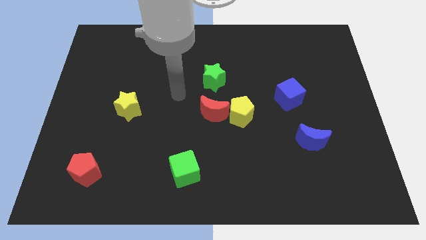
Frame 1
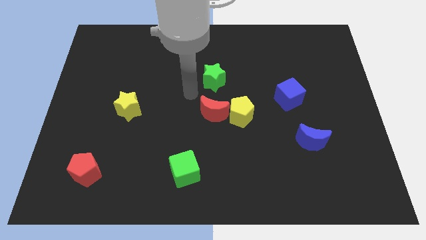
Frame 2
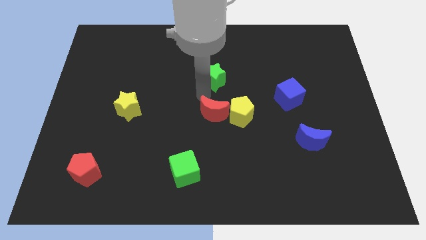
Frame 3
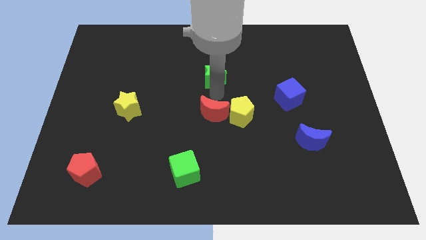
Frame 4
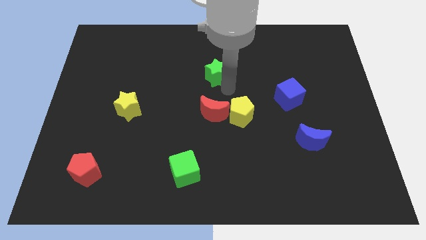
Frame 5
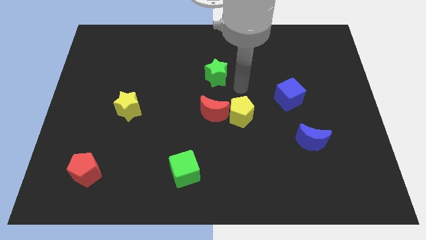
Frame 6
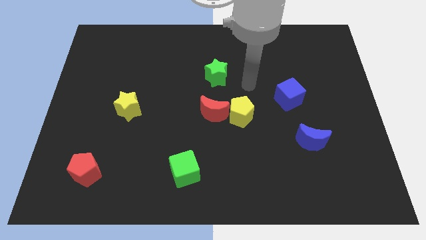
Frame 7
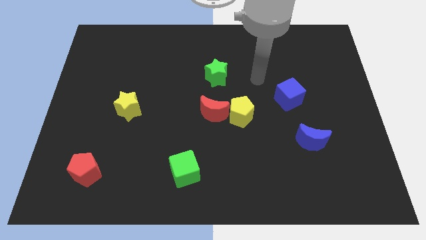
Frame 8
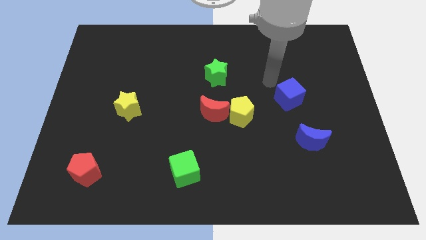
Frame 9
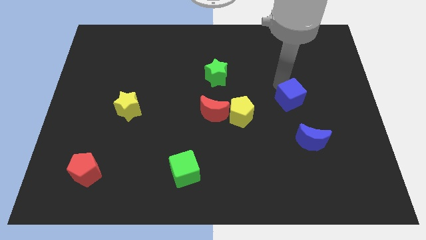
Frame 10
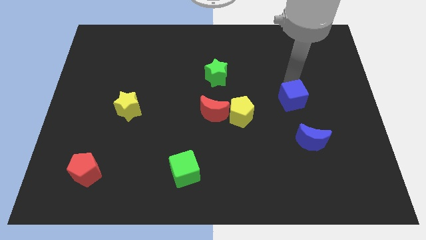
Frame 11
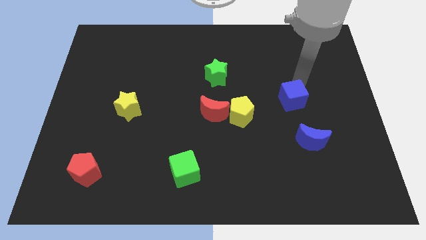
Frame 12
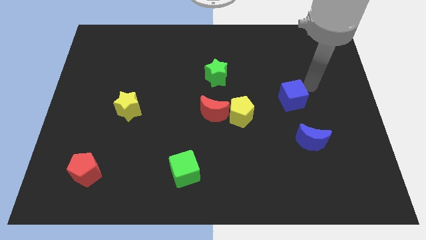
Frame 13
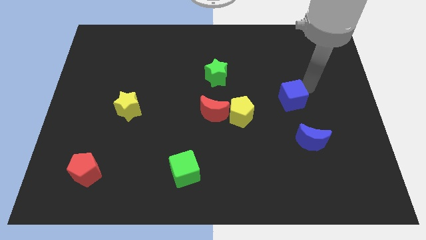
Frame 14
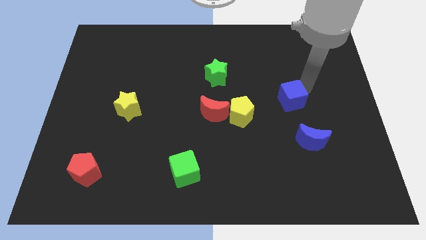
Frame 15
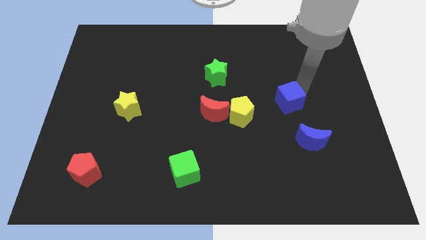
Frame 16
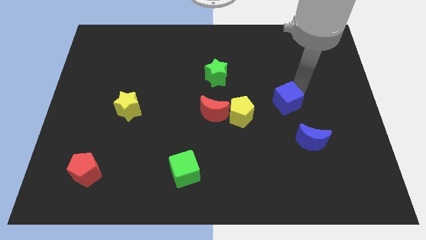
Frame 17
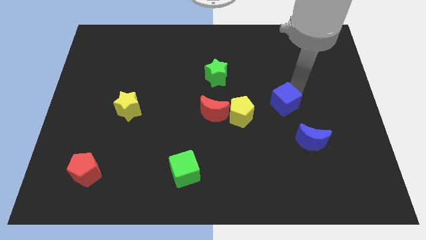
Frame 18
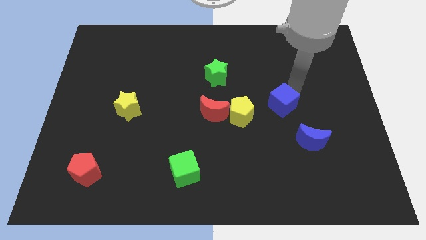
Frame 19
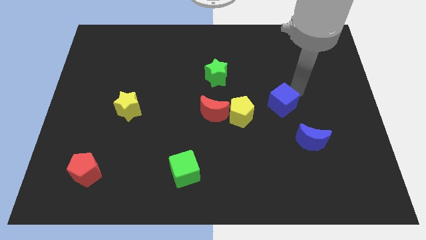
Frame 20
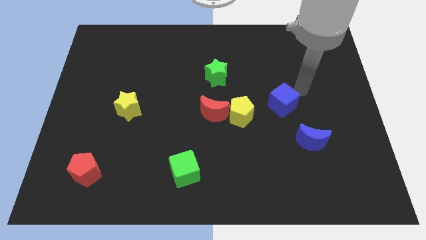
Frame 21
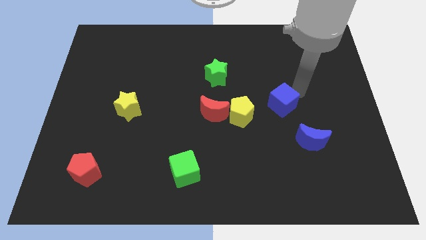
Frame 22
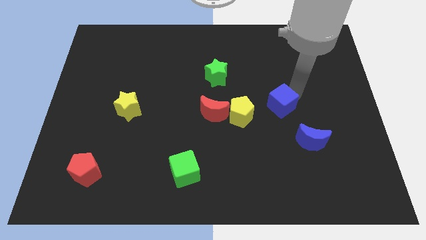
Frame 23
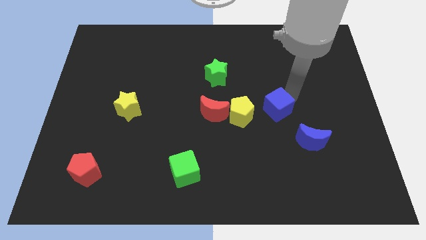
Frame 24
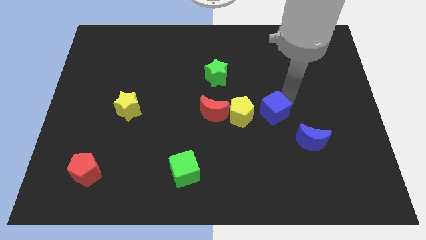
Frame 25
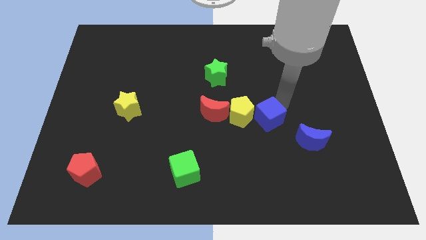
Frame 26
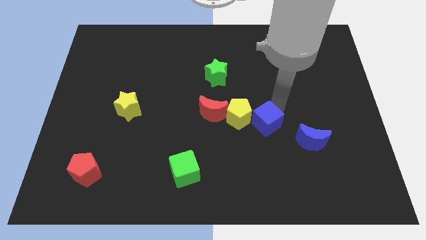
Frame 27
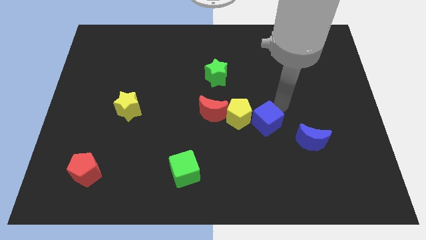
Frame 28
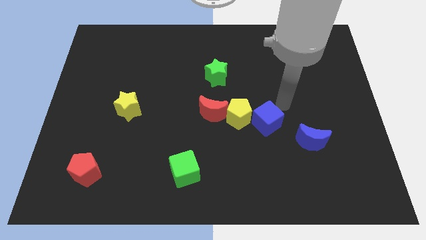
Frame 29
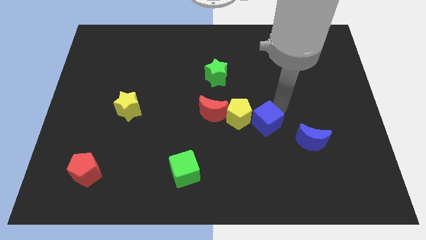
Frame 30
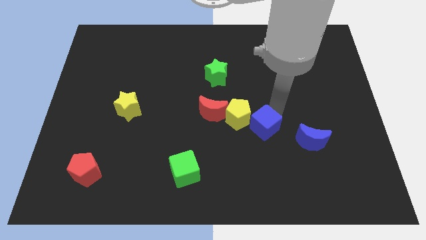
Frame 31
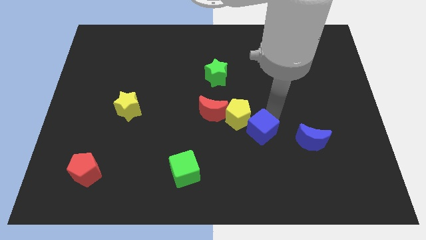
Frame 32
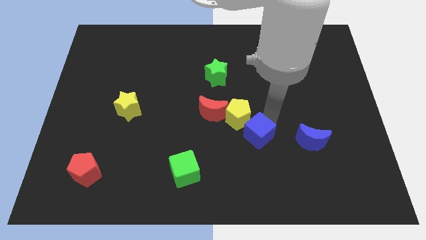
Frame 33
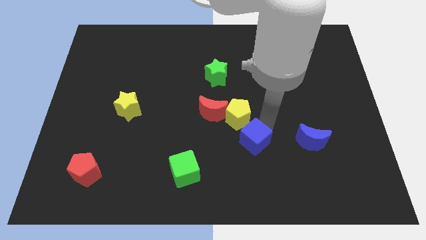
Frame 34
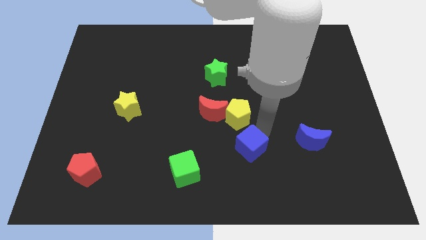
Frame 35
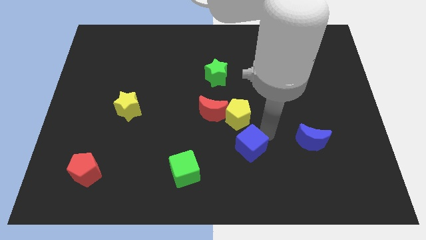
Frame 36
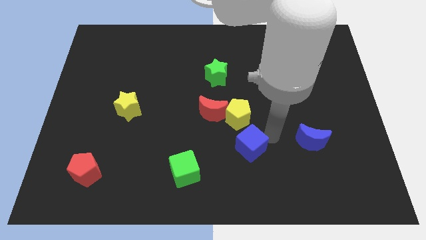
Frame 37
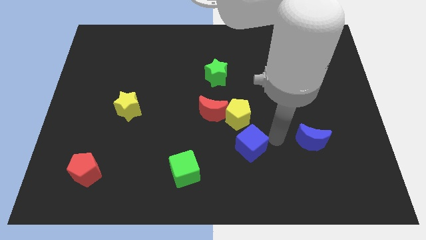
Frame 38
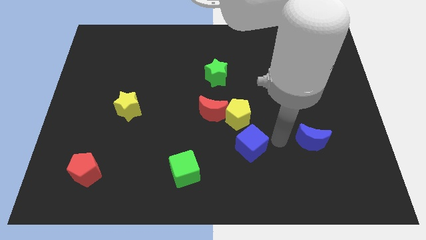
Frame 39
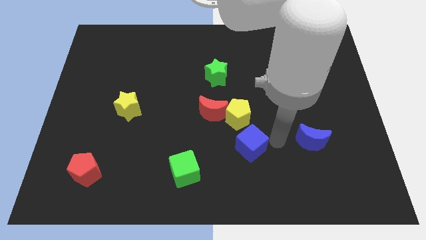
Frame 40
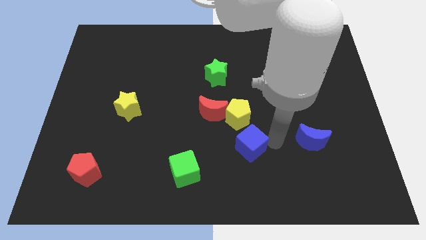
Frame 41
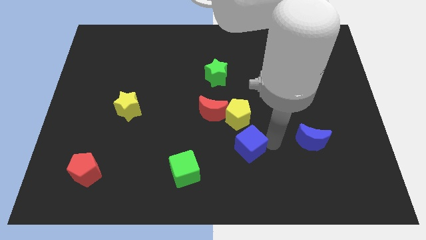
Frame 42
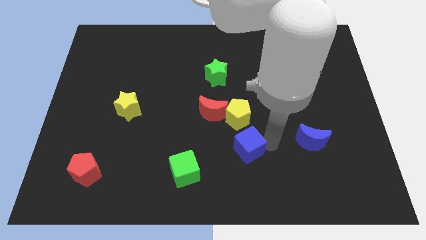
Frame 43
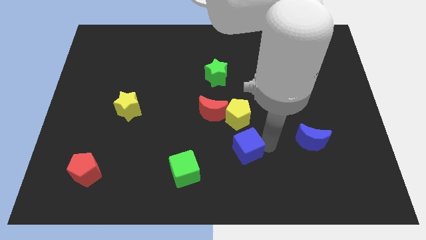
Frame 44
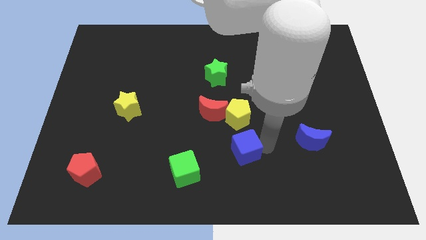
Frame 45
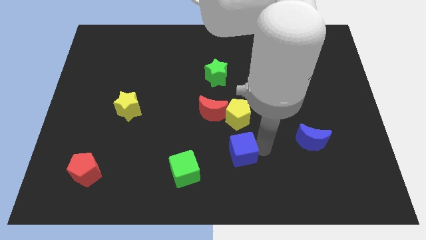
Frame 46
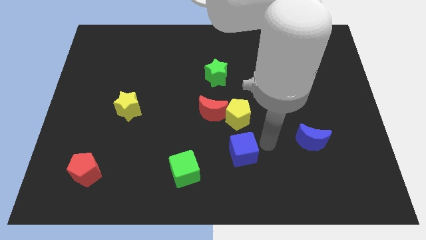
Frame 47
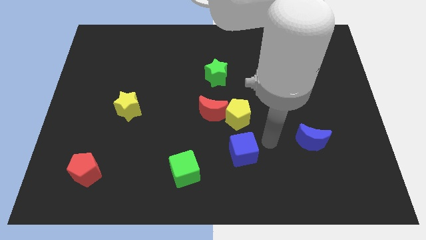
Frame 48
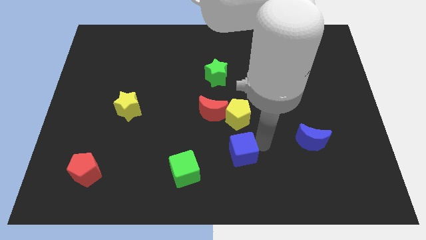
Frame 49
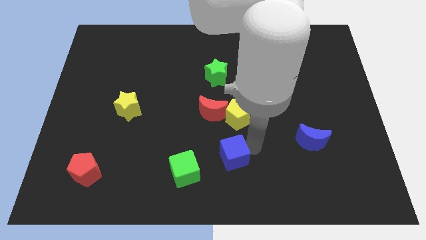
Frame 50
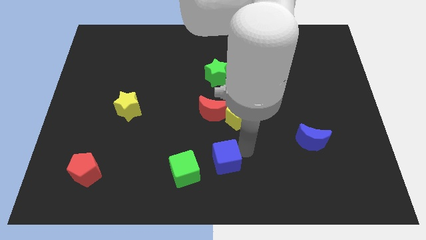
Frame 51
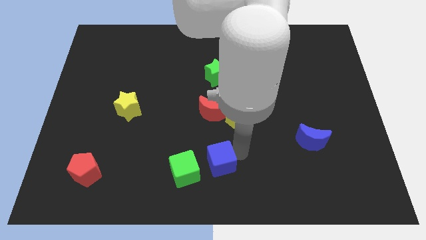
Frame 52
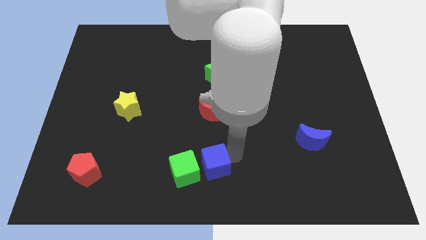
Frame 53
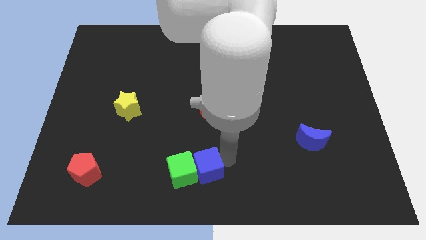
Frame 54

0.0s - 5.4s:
slide the blue cube close to the green cube

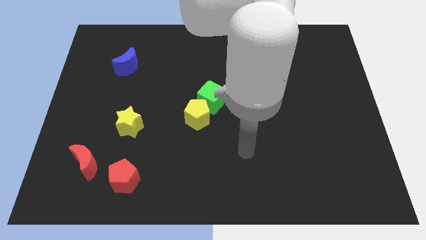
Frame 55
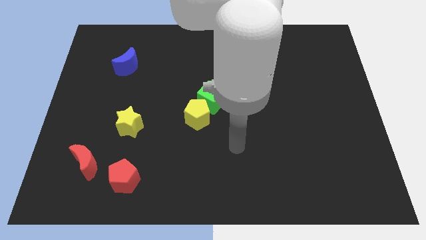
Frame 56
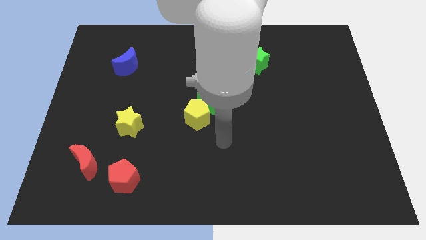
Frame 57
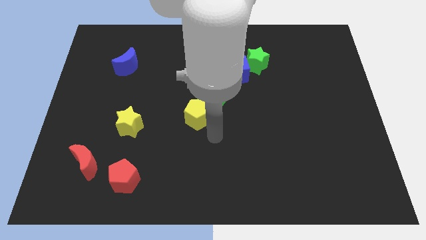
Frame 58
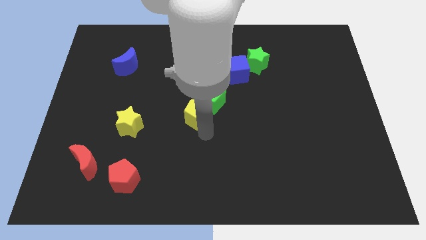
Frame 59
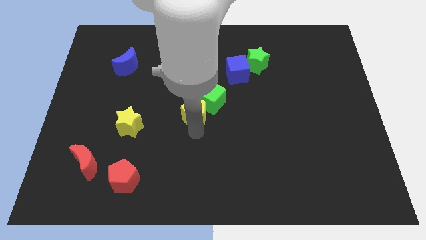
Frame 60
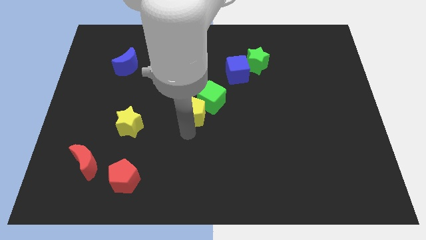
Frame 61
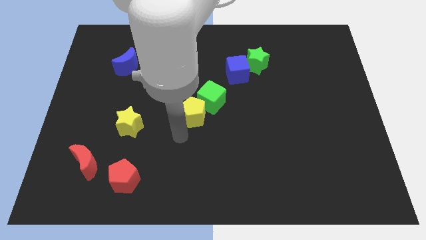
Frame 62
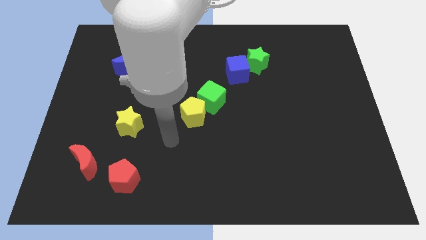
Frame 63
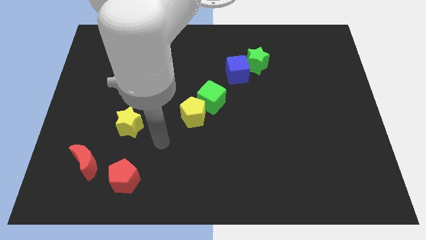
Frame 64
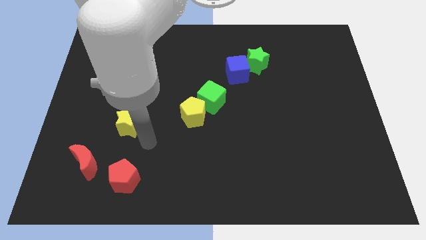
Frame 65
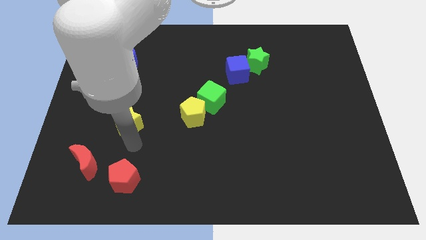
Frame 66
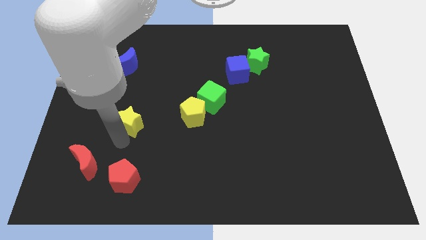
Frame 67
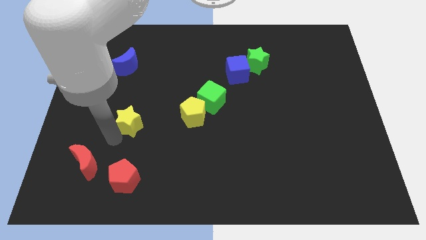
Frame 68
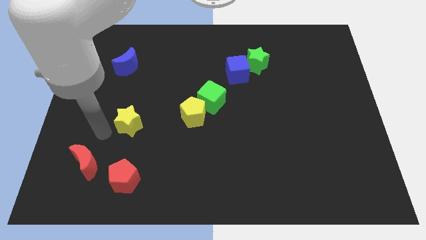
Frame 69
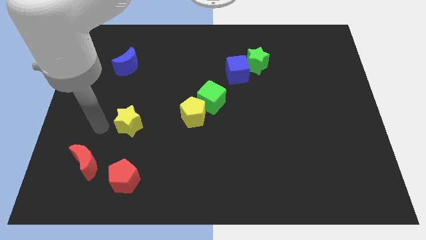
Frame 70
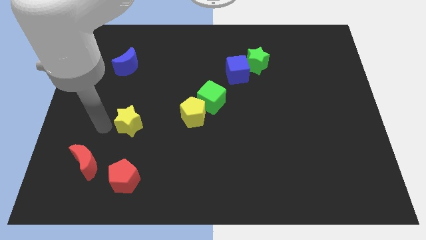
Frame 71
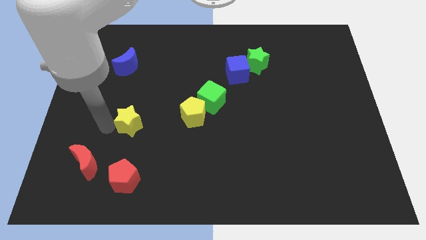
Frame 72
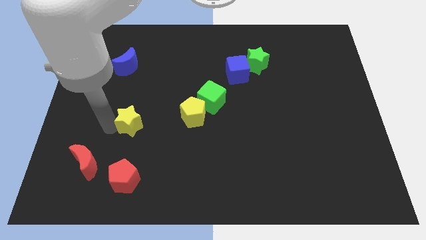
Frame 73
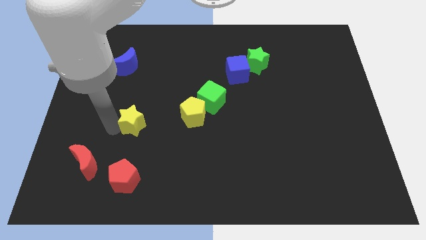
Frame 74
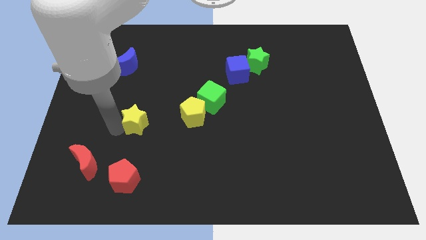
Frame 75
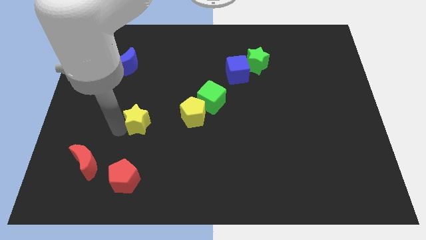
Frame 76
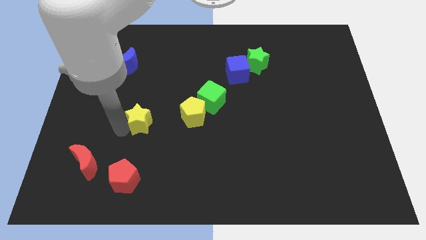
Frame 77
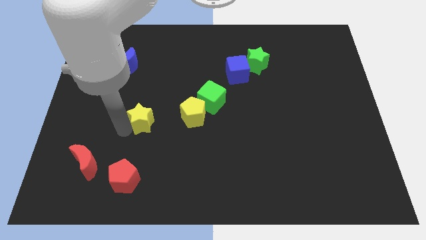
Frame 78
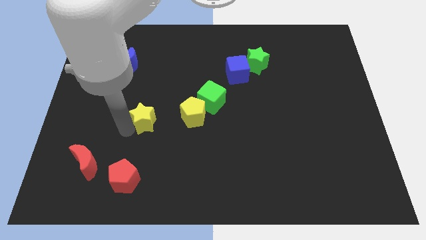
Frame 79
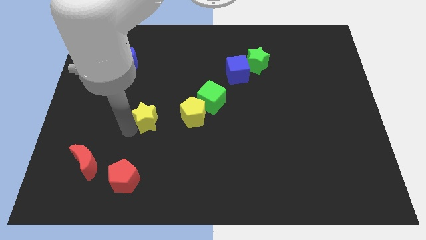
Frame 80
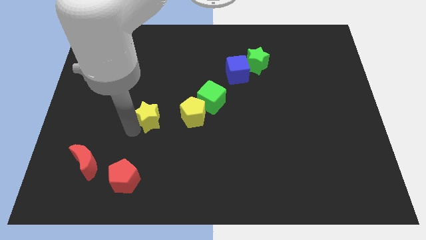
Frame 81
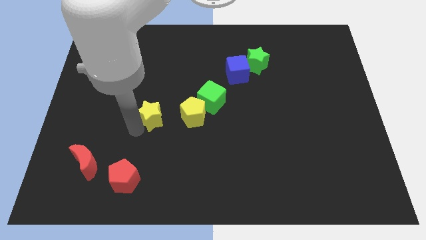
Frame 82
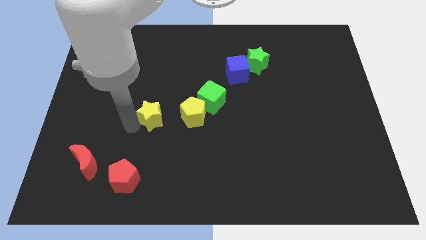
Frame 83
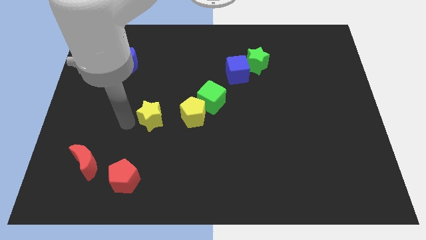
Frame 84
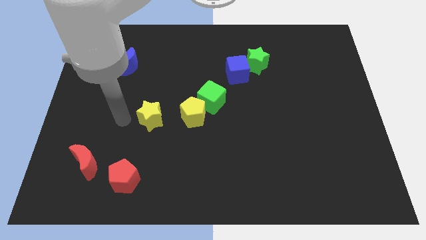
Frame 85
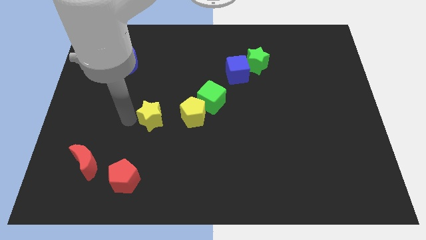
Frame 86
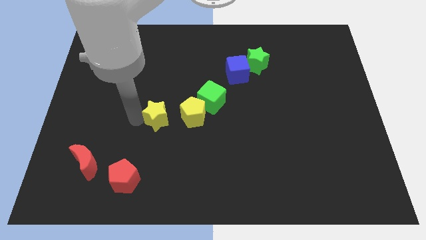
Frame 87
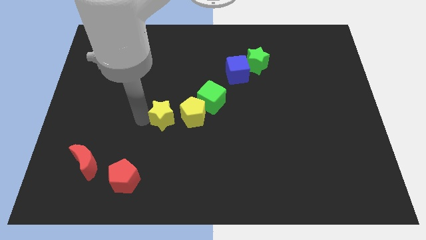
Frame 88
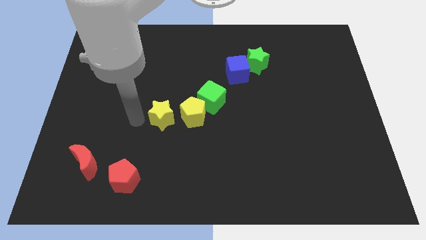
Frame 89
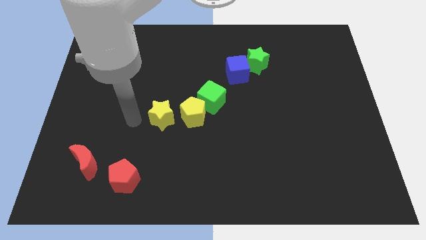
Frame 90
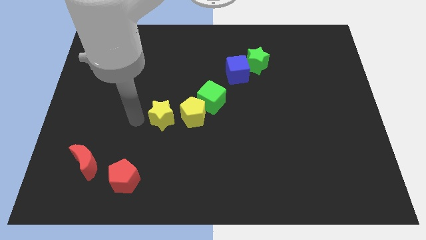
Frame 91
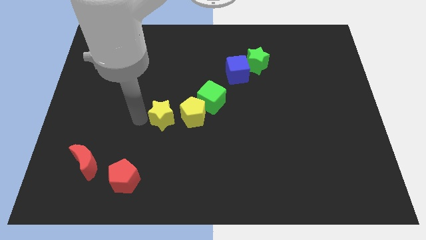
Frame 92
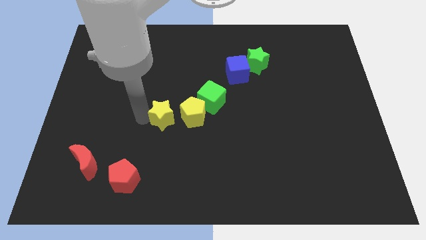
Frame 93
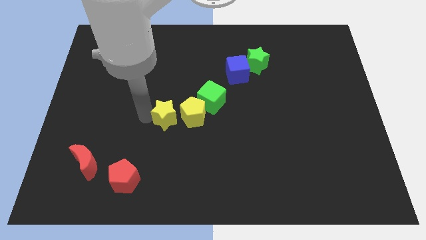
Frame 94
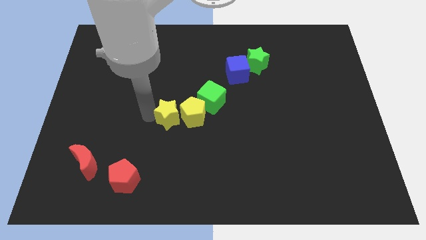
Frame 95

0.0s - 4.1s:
put the yellow star next to the yellow pentagon
